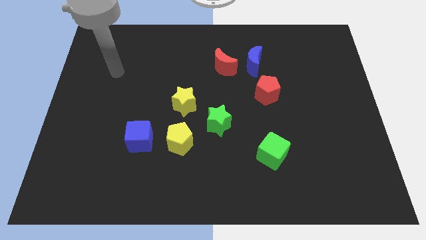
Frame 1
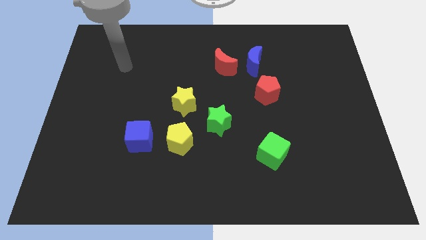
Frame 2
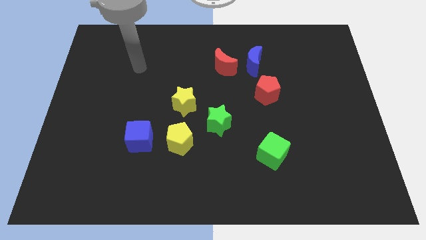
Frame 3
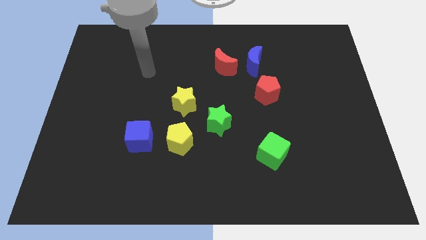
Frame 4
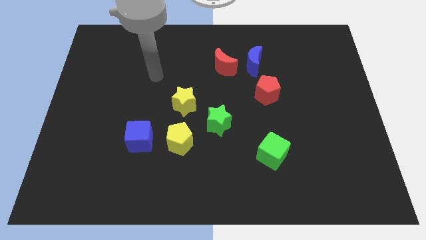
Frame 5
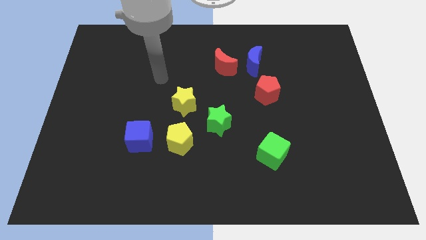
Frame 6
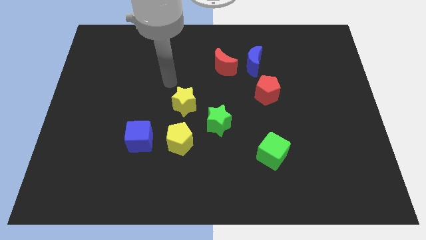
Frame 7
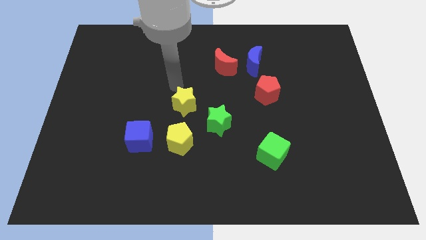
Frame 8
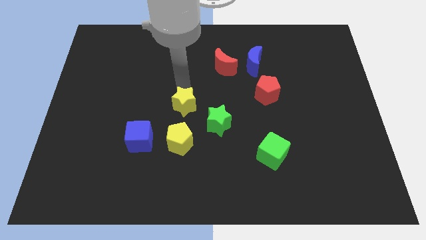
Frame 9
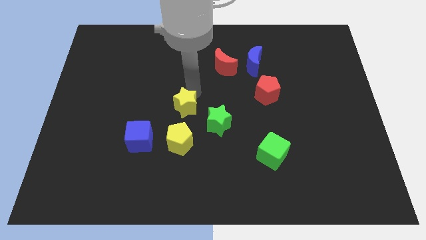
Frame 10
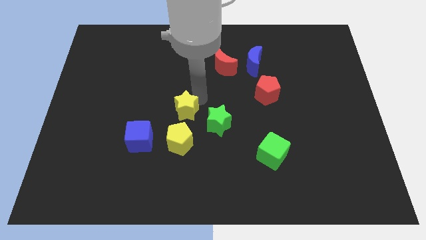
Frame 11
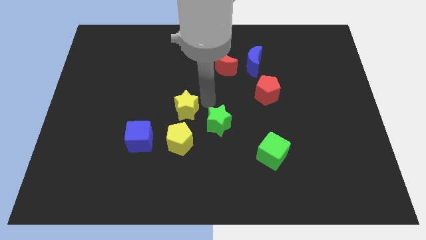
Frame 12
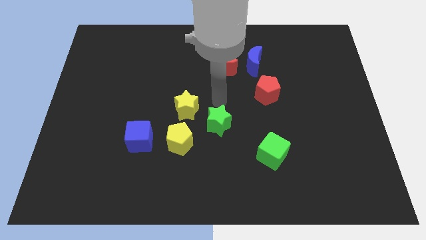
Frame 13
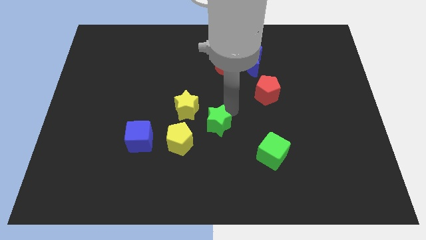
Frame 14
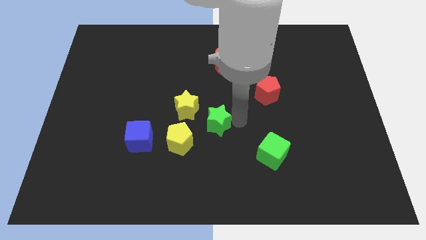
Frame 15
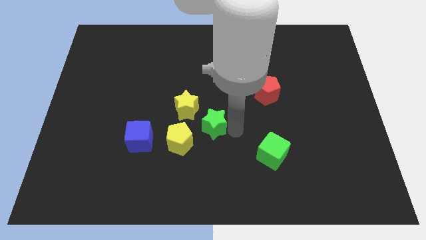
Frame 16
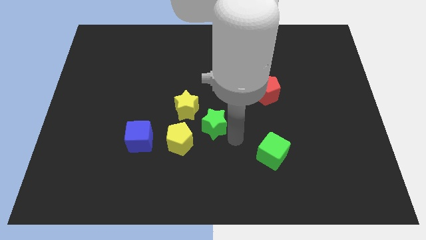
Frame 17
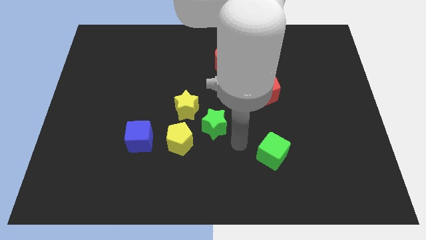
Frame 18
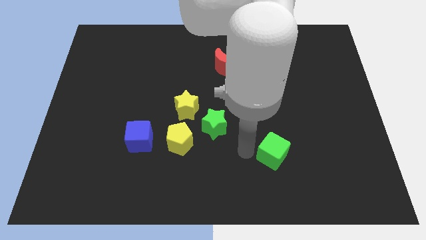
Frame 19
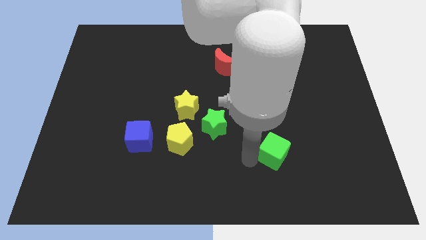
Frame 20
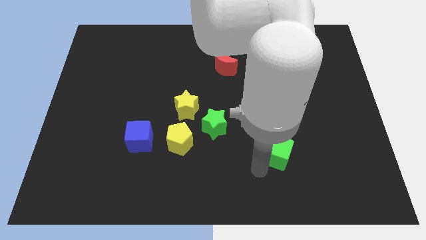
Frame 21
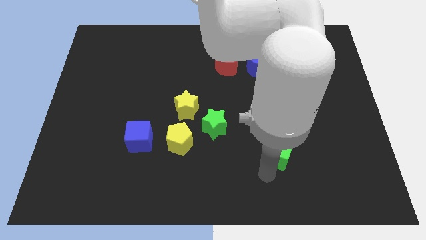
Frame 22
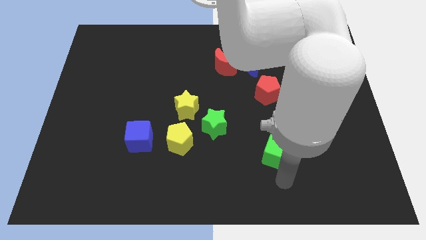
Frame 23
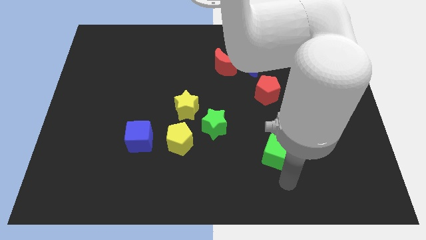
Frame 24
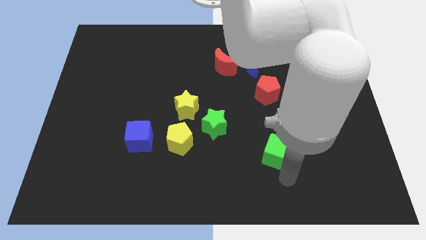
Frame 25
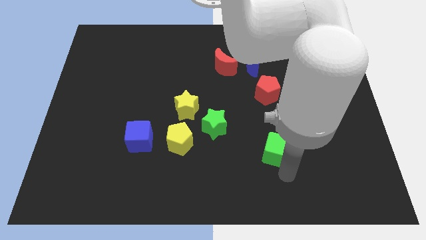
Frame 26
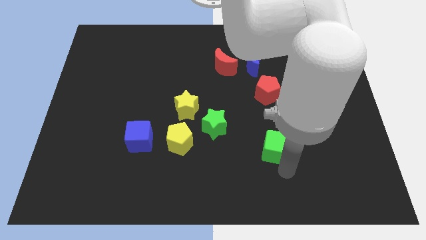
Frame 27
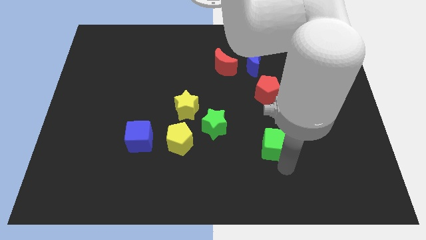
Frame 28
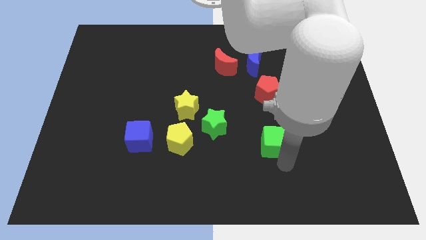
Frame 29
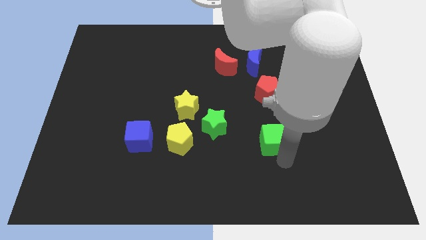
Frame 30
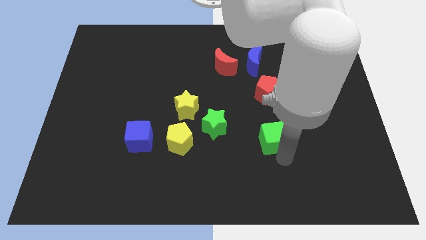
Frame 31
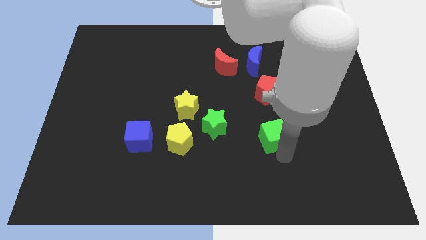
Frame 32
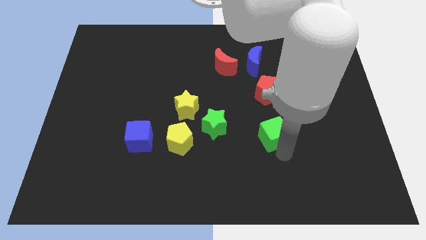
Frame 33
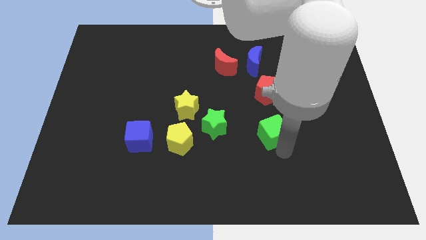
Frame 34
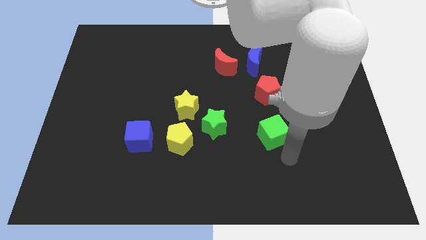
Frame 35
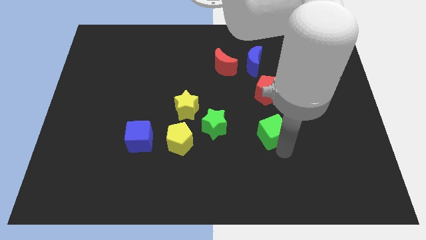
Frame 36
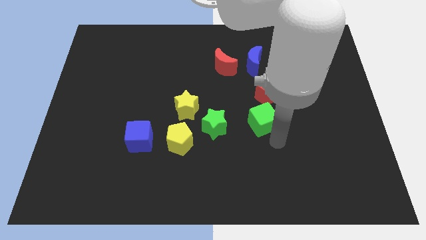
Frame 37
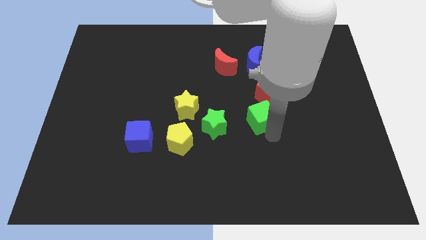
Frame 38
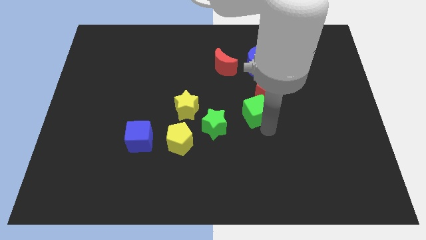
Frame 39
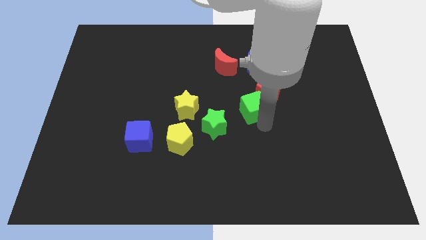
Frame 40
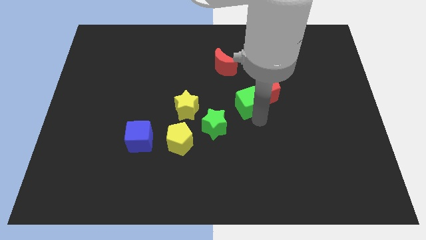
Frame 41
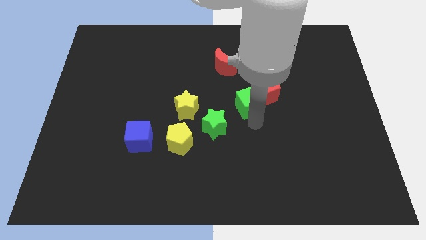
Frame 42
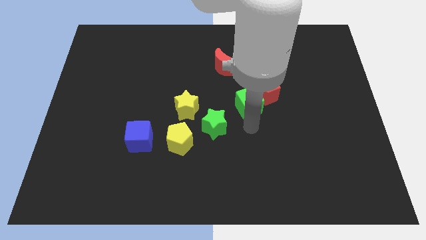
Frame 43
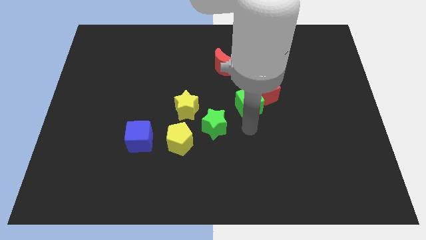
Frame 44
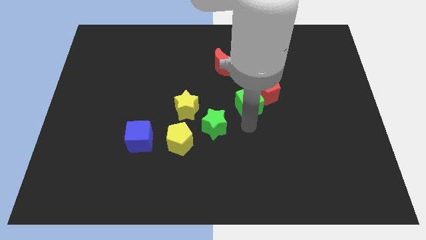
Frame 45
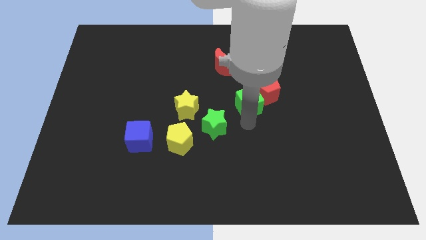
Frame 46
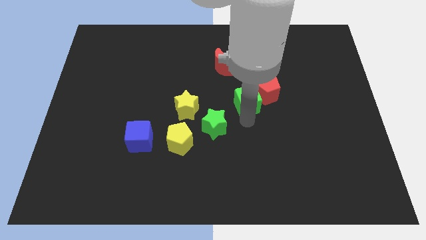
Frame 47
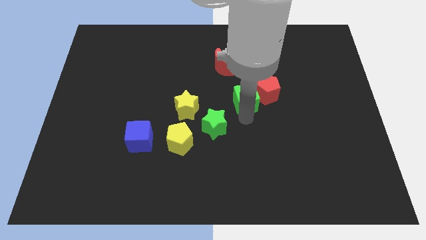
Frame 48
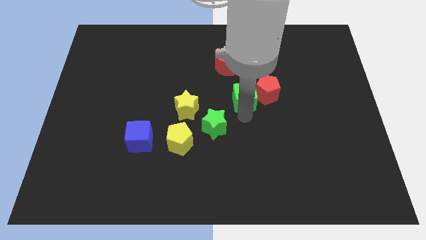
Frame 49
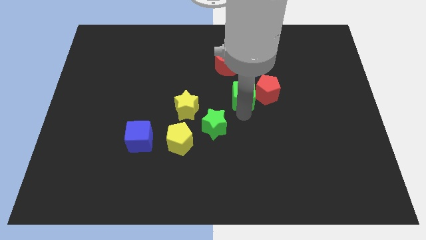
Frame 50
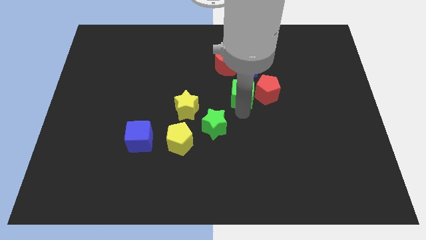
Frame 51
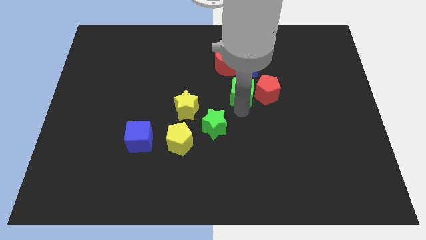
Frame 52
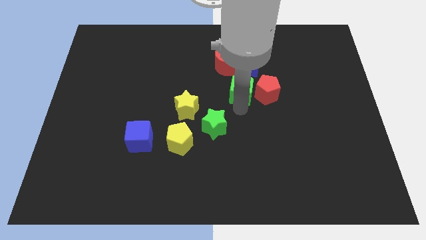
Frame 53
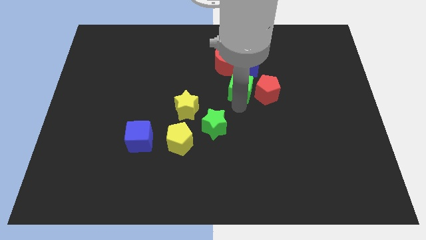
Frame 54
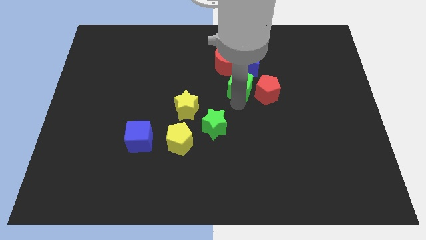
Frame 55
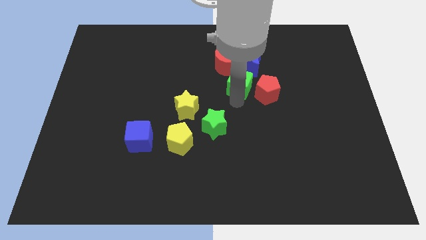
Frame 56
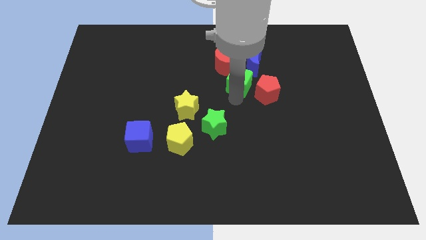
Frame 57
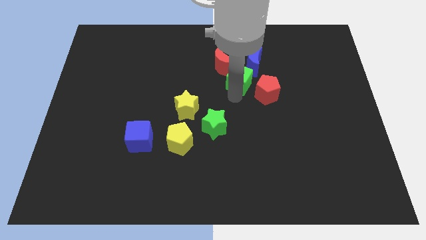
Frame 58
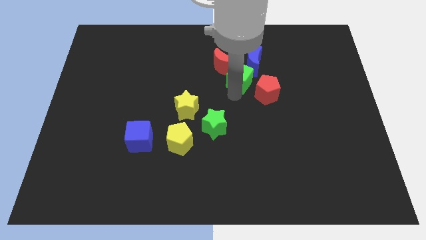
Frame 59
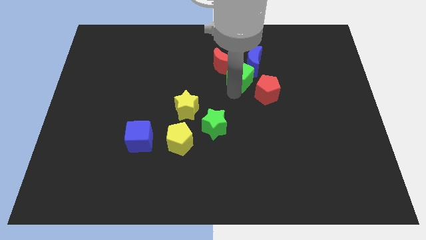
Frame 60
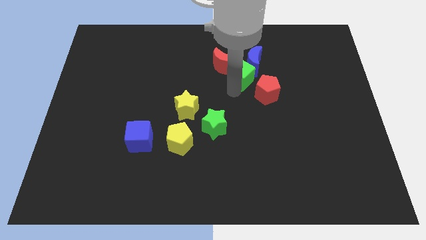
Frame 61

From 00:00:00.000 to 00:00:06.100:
push the green cube to the blue moon
